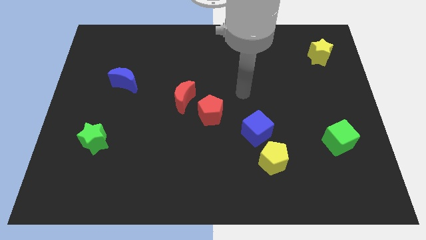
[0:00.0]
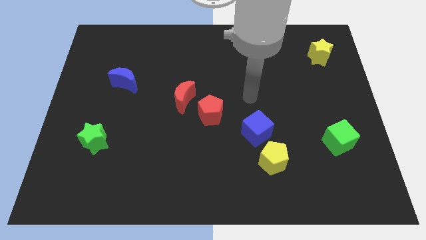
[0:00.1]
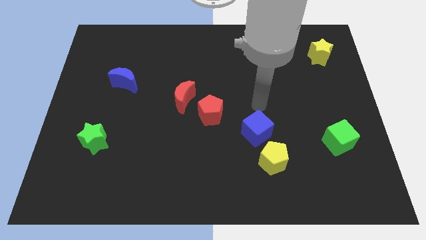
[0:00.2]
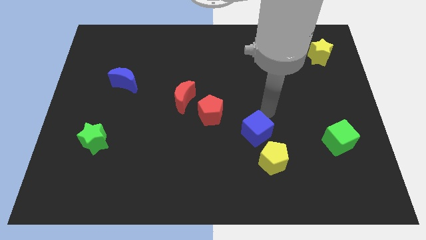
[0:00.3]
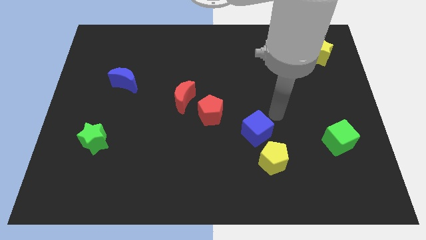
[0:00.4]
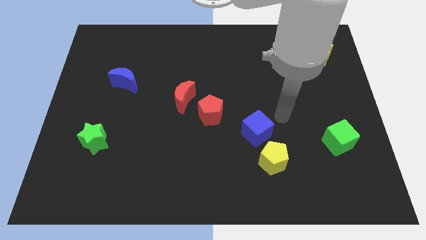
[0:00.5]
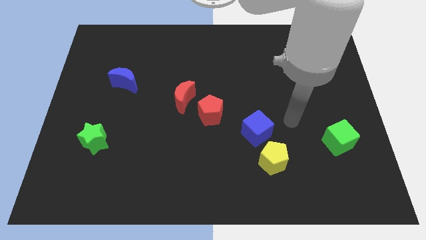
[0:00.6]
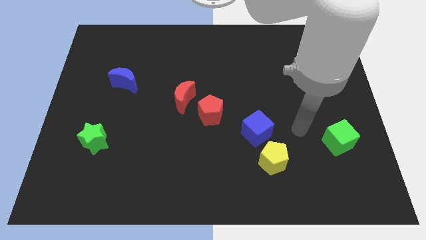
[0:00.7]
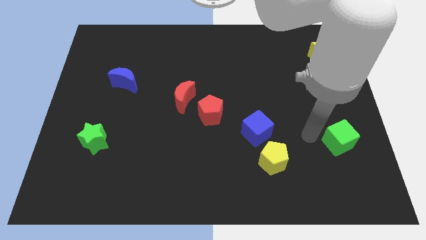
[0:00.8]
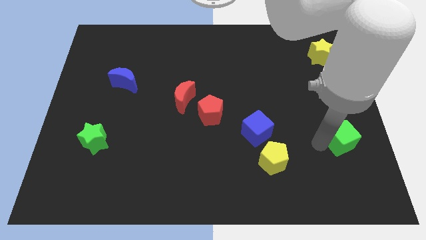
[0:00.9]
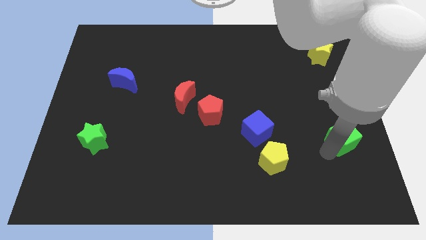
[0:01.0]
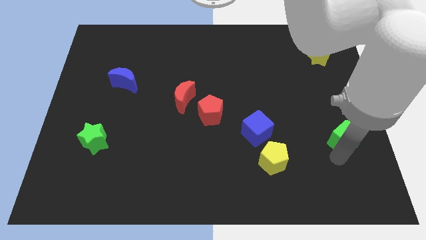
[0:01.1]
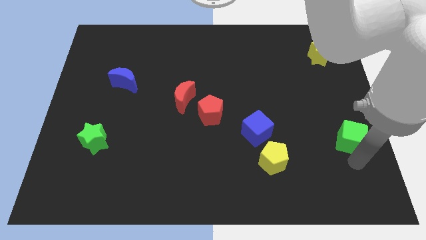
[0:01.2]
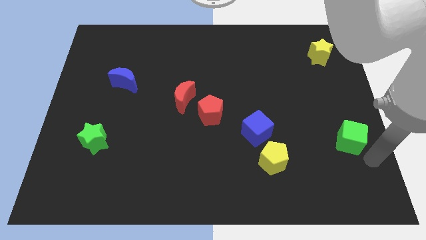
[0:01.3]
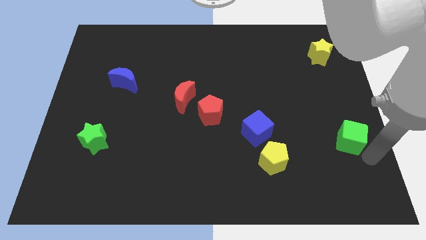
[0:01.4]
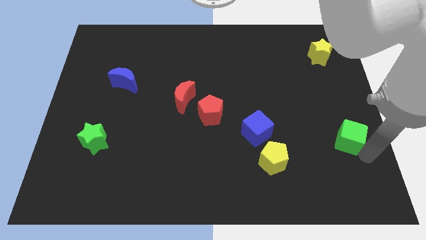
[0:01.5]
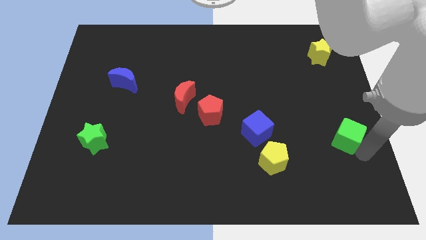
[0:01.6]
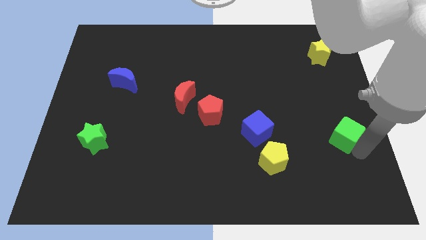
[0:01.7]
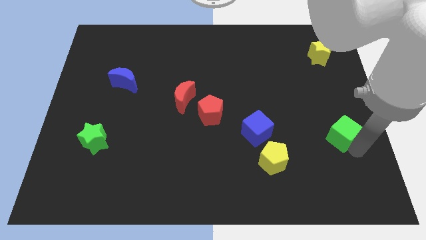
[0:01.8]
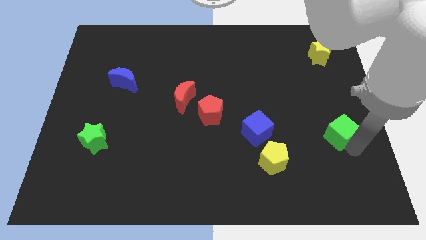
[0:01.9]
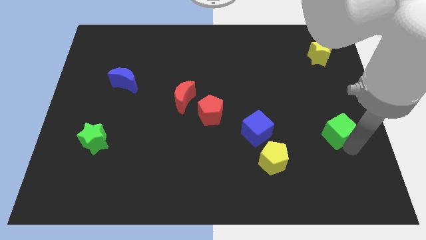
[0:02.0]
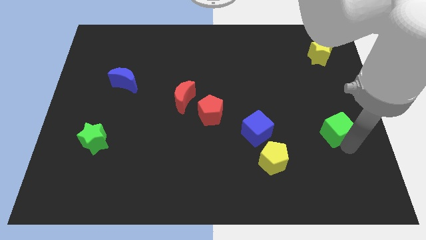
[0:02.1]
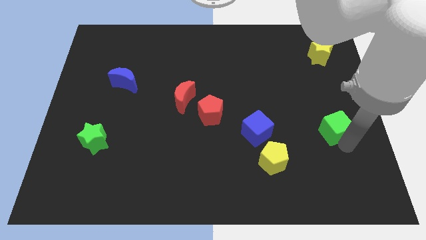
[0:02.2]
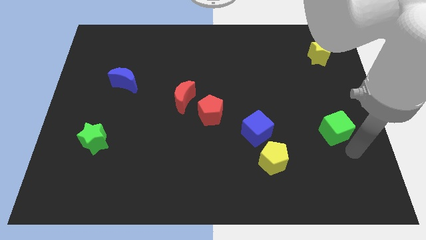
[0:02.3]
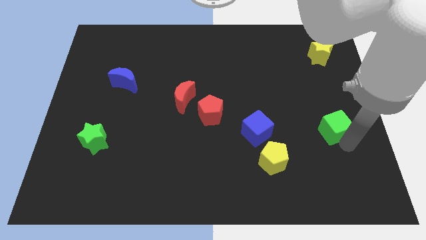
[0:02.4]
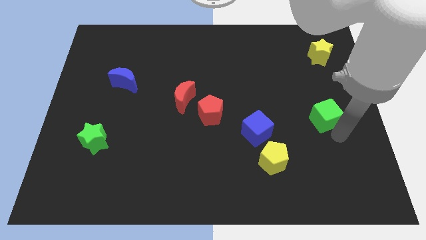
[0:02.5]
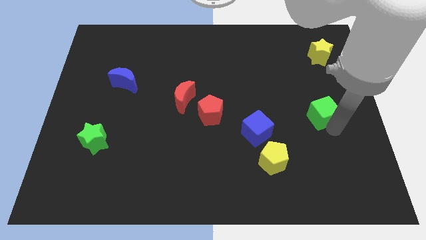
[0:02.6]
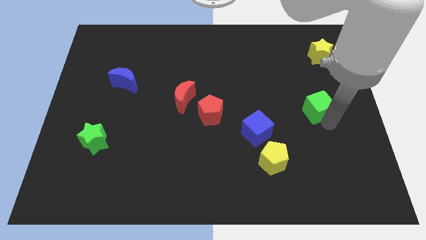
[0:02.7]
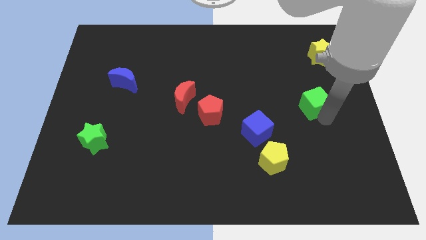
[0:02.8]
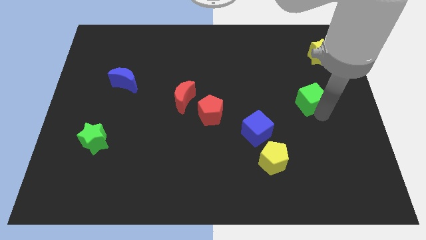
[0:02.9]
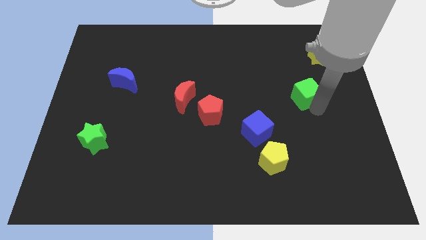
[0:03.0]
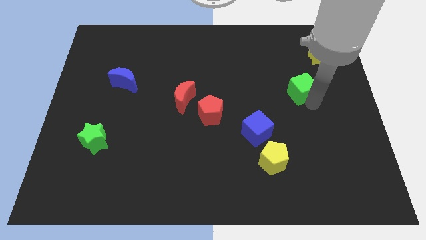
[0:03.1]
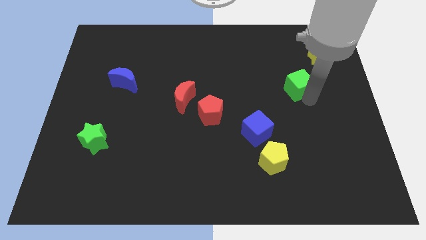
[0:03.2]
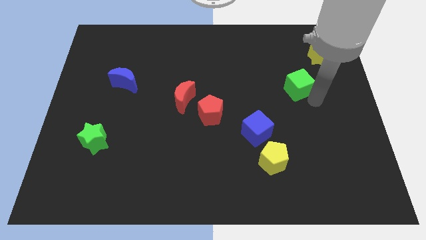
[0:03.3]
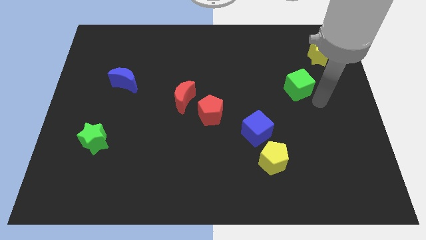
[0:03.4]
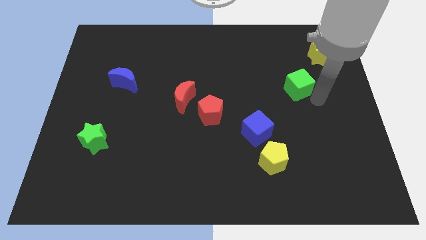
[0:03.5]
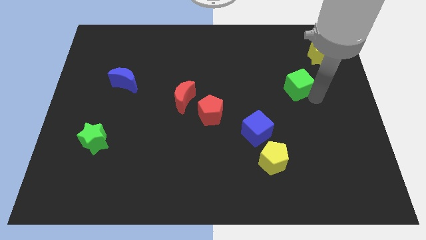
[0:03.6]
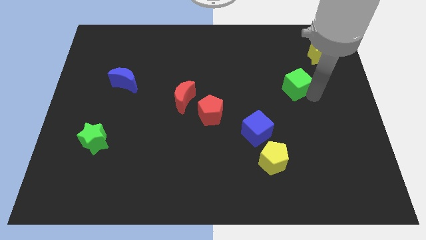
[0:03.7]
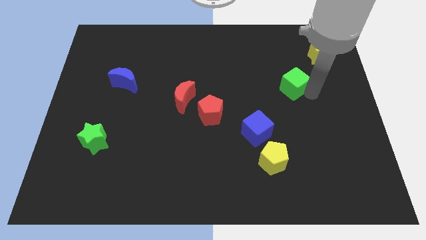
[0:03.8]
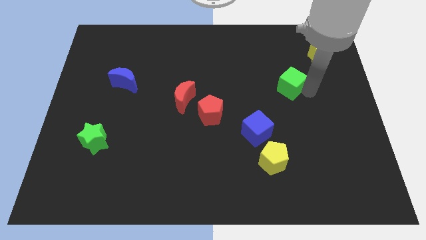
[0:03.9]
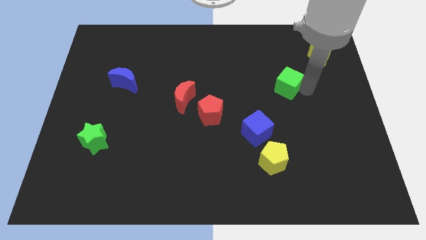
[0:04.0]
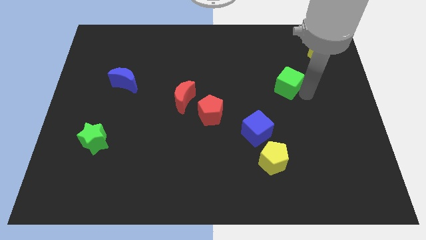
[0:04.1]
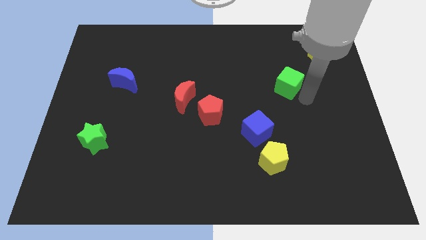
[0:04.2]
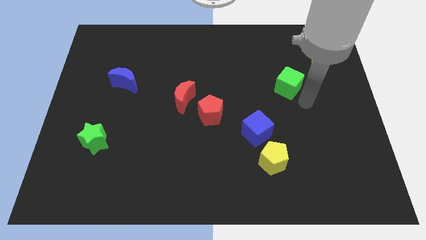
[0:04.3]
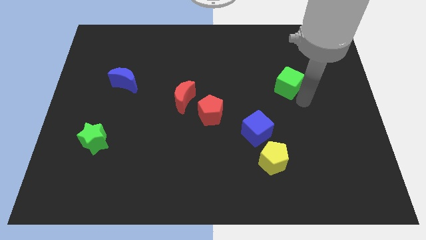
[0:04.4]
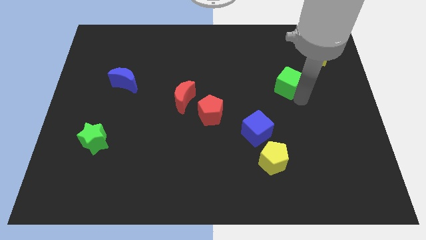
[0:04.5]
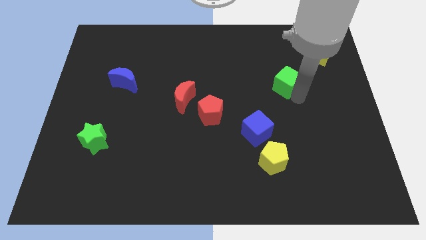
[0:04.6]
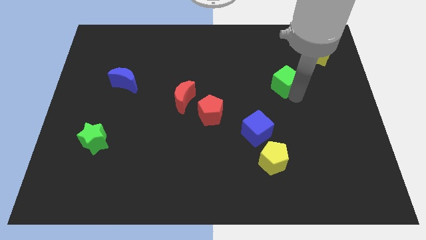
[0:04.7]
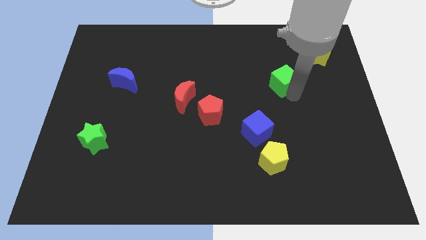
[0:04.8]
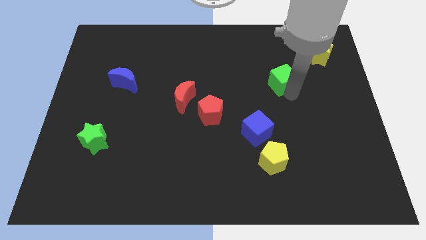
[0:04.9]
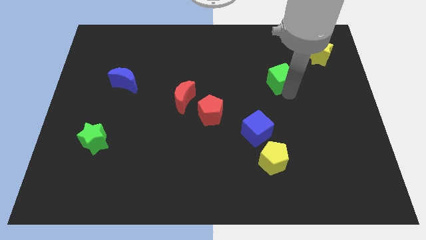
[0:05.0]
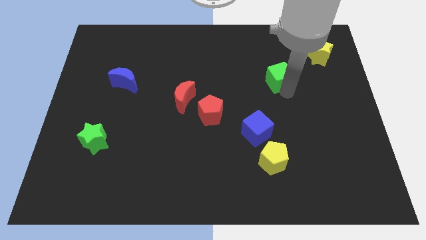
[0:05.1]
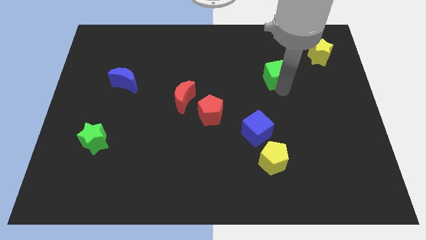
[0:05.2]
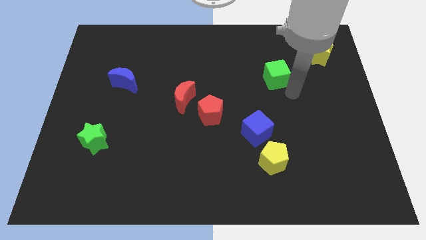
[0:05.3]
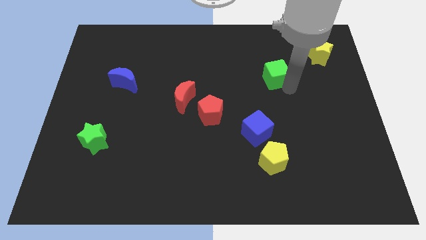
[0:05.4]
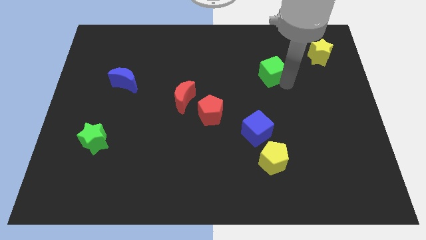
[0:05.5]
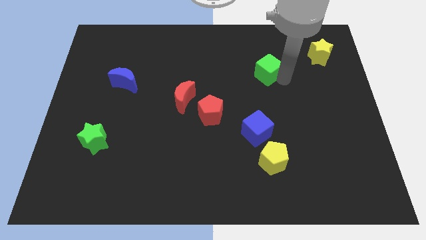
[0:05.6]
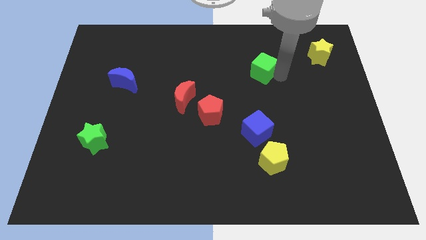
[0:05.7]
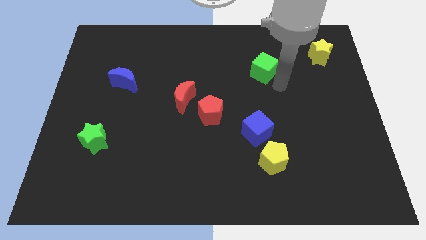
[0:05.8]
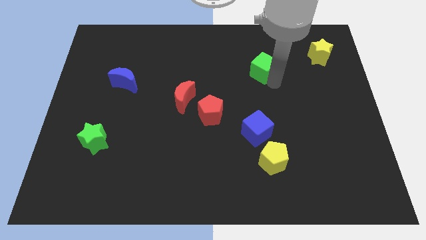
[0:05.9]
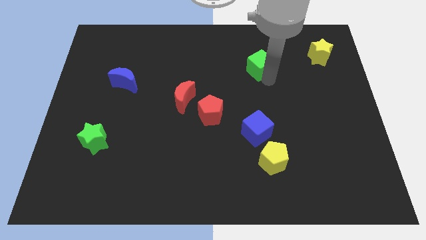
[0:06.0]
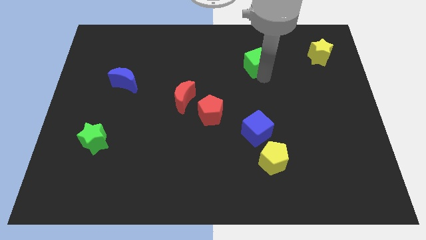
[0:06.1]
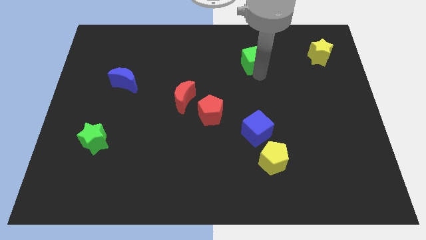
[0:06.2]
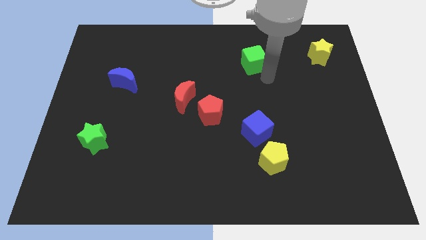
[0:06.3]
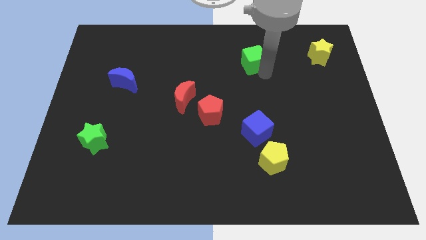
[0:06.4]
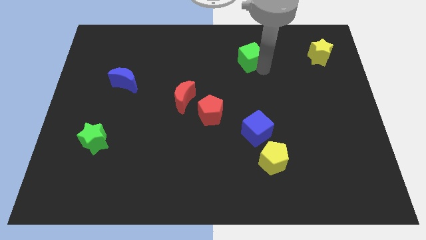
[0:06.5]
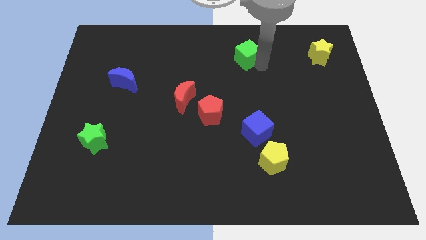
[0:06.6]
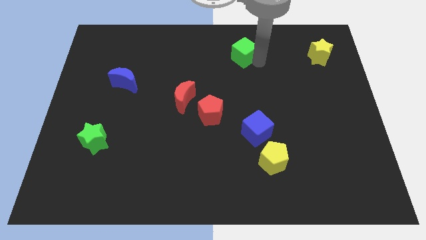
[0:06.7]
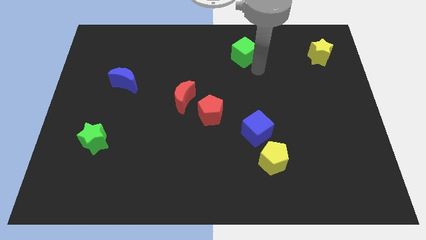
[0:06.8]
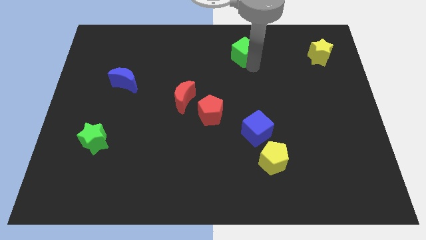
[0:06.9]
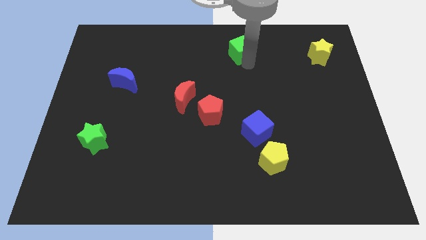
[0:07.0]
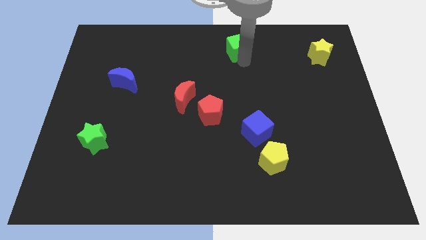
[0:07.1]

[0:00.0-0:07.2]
push the green cube to the top side
